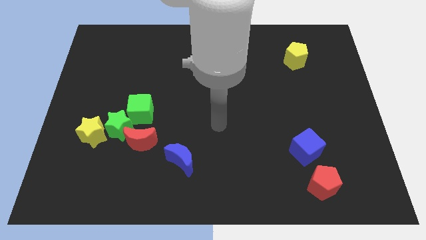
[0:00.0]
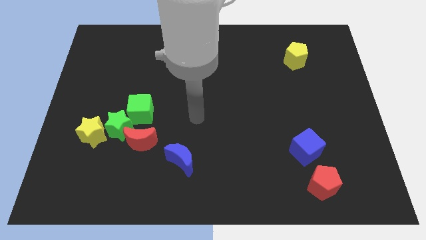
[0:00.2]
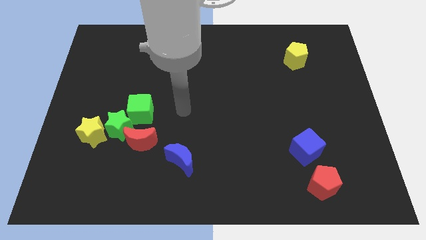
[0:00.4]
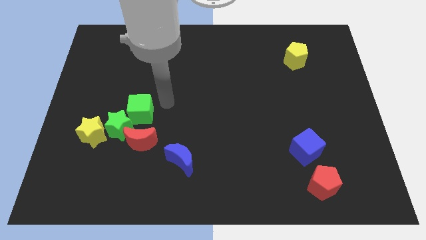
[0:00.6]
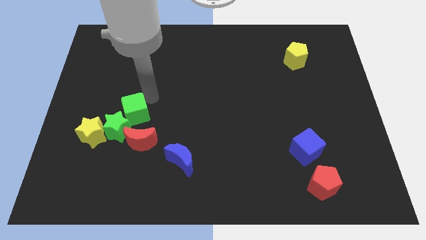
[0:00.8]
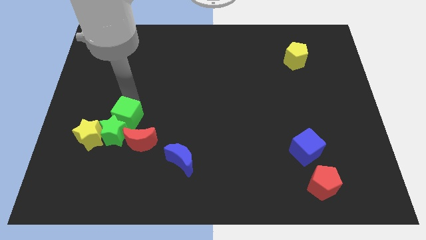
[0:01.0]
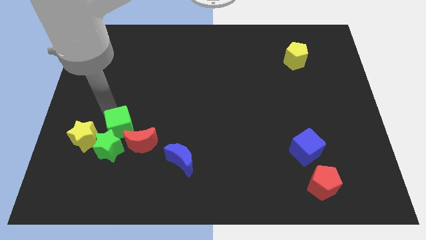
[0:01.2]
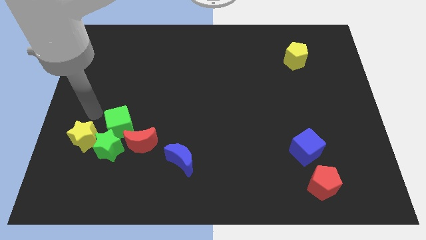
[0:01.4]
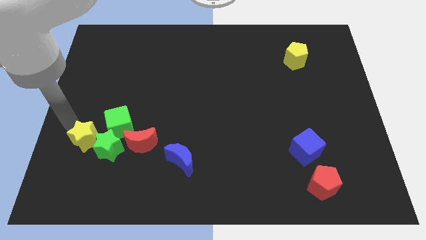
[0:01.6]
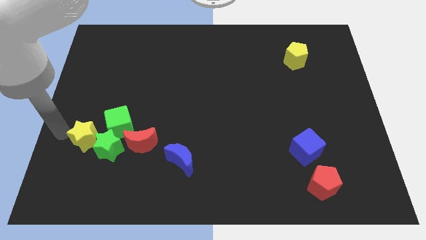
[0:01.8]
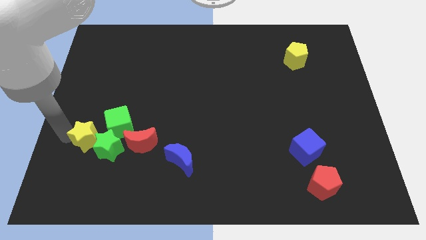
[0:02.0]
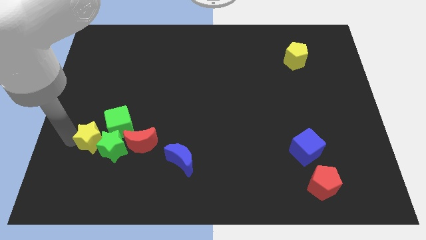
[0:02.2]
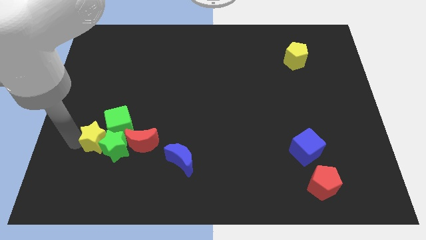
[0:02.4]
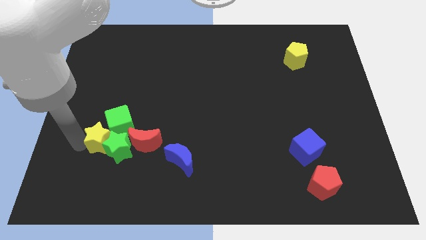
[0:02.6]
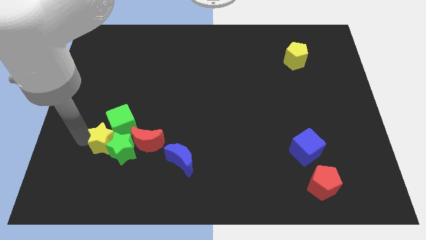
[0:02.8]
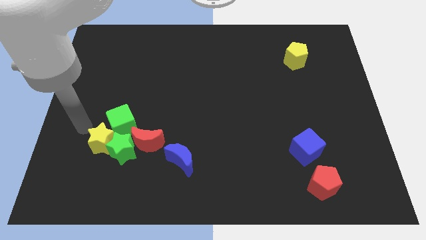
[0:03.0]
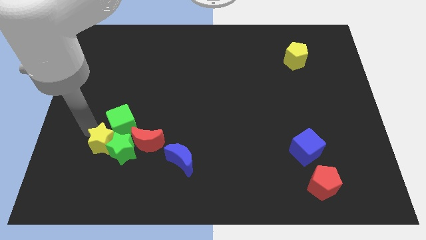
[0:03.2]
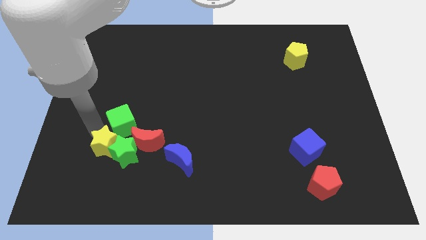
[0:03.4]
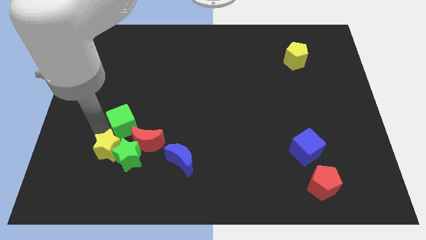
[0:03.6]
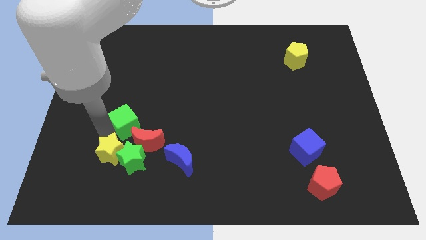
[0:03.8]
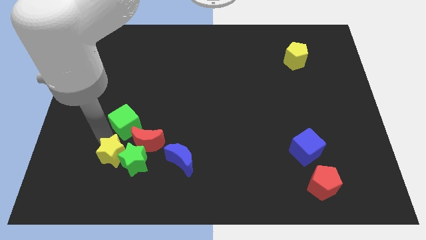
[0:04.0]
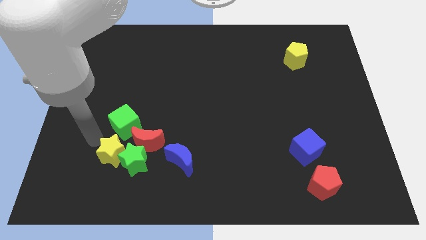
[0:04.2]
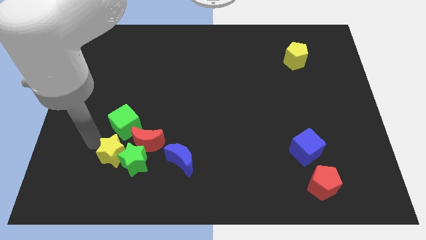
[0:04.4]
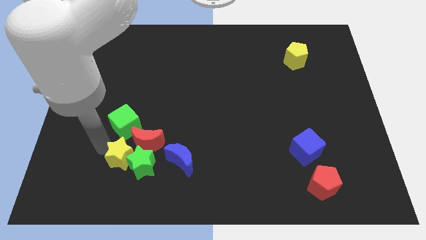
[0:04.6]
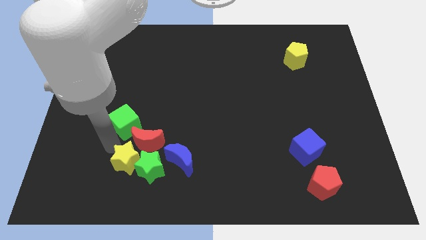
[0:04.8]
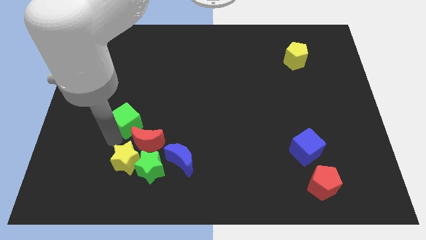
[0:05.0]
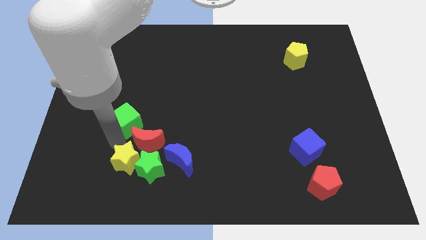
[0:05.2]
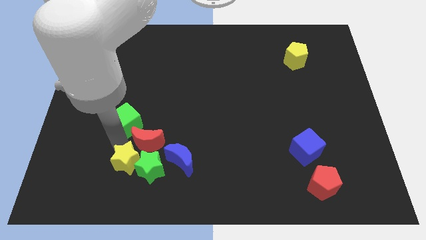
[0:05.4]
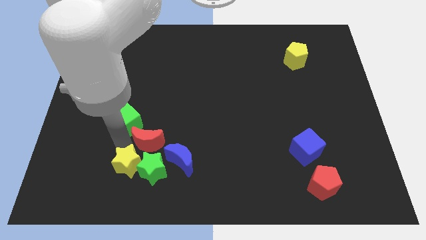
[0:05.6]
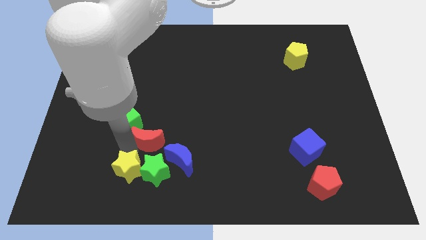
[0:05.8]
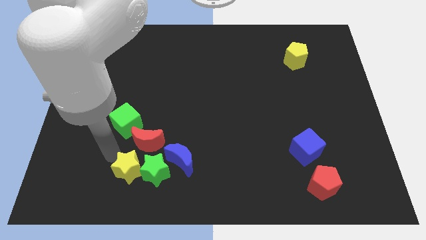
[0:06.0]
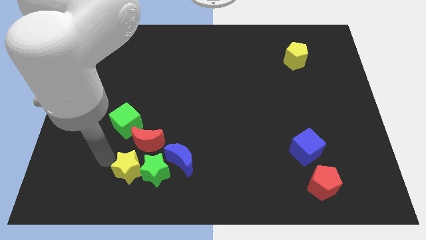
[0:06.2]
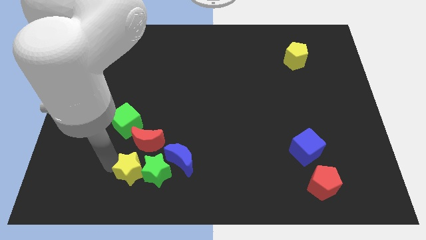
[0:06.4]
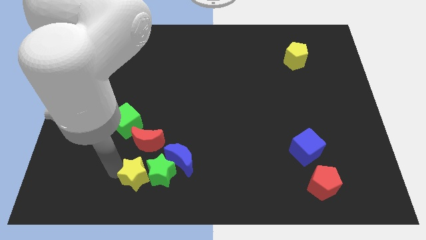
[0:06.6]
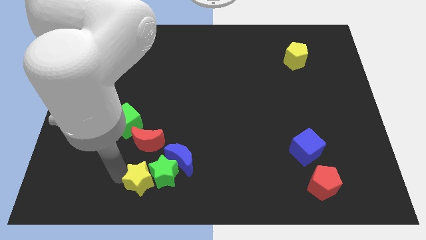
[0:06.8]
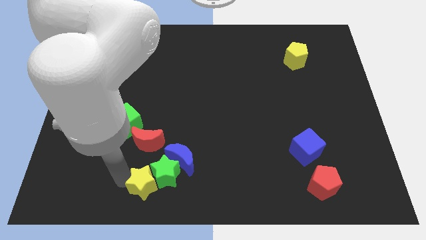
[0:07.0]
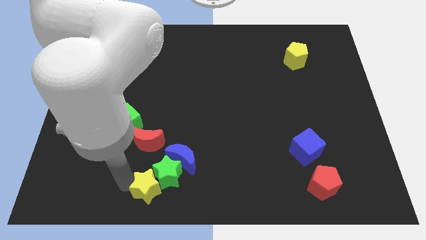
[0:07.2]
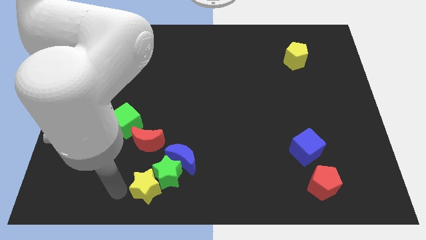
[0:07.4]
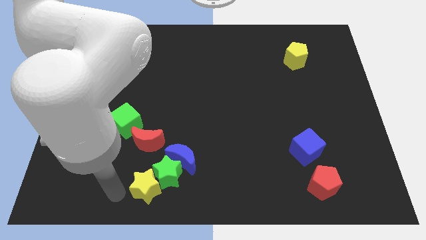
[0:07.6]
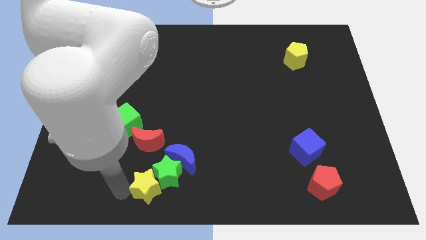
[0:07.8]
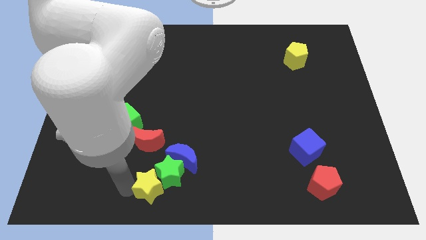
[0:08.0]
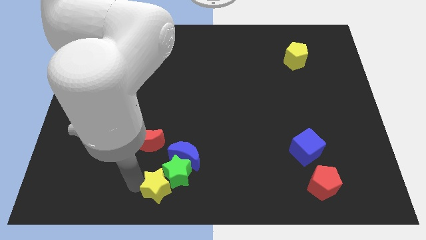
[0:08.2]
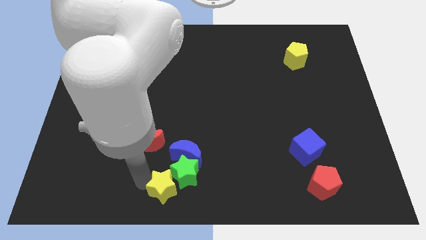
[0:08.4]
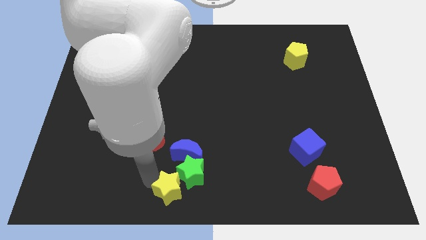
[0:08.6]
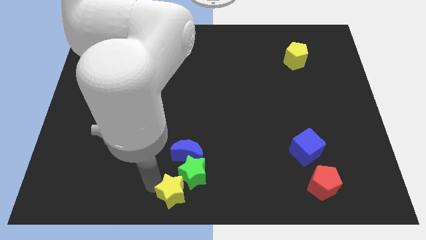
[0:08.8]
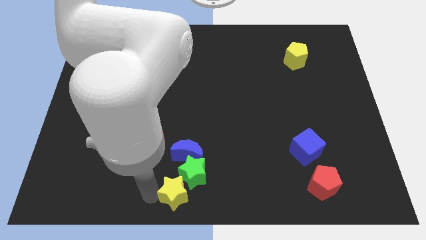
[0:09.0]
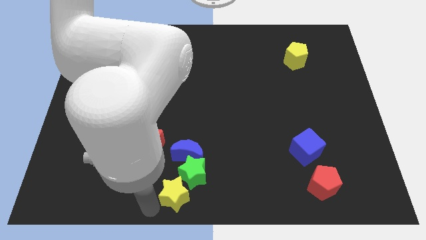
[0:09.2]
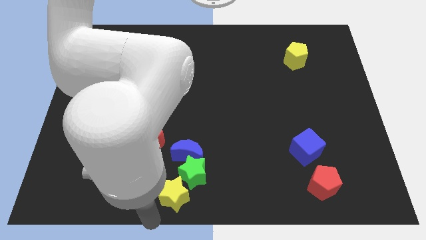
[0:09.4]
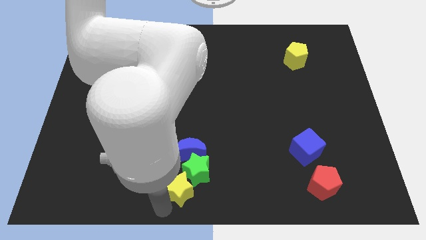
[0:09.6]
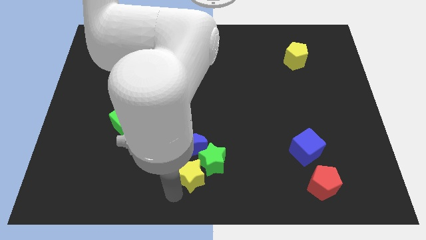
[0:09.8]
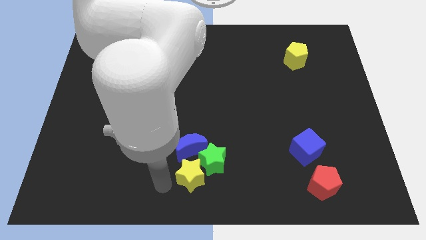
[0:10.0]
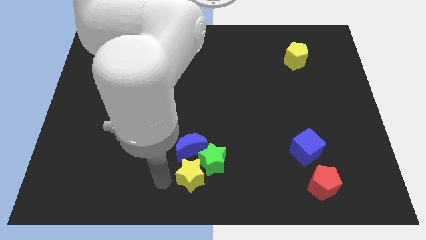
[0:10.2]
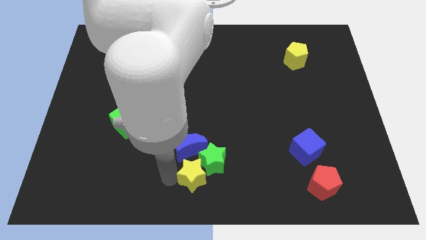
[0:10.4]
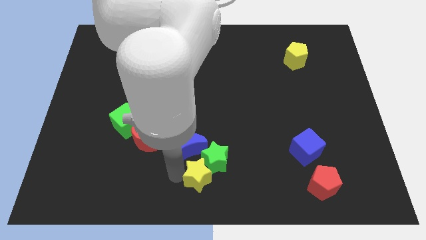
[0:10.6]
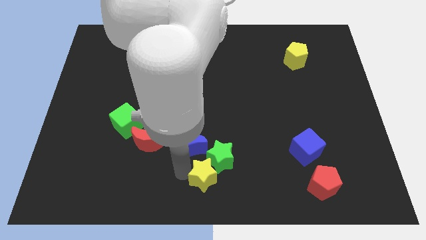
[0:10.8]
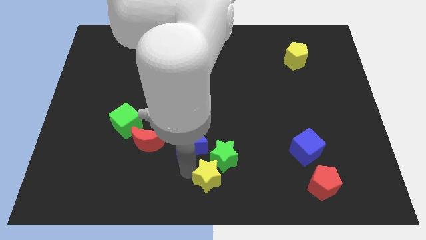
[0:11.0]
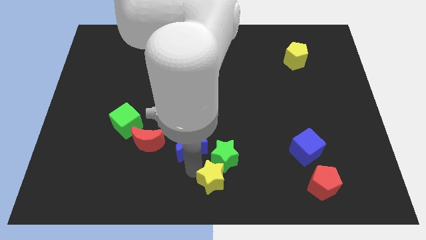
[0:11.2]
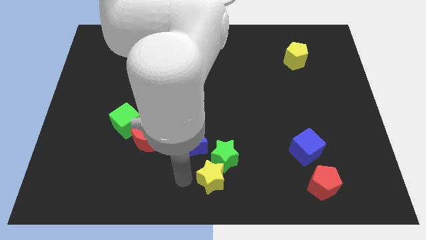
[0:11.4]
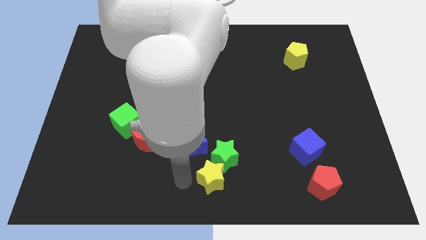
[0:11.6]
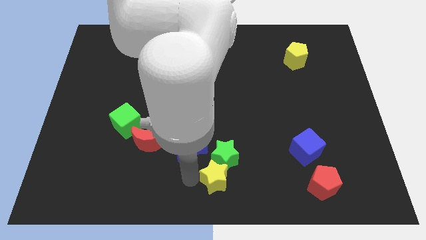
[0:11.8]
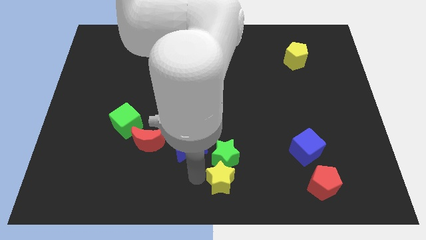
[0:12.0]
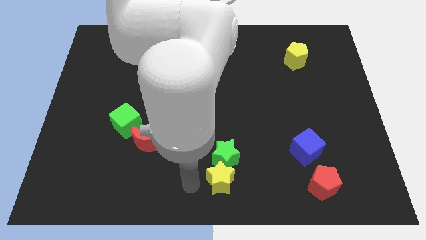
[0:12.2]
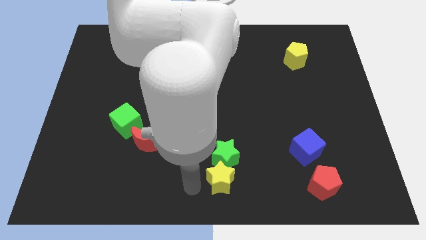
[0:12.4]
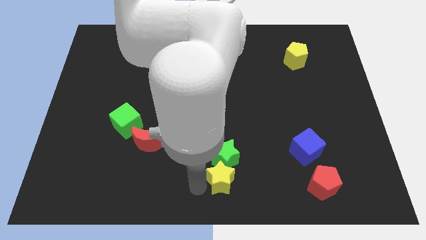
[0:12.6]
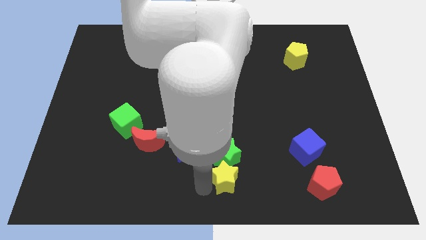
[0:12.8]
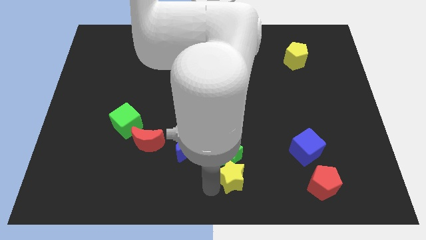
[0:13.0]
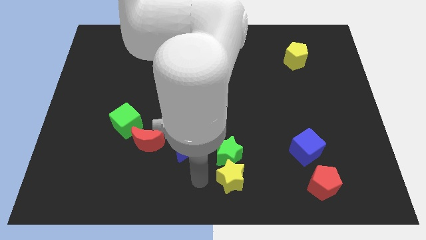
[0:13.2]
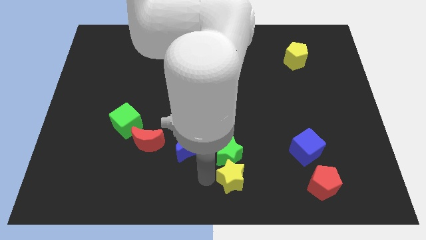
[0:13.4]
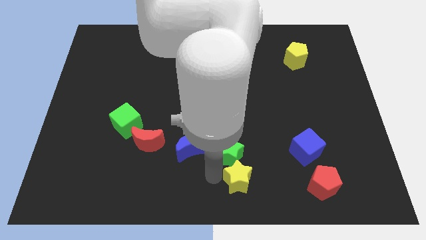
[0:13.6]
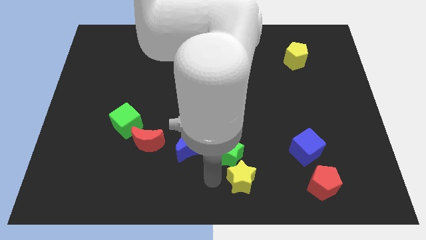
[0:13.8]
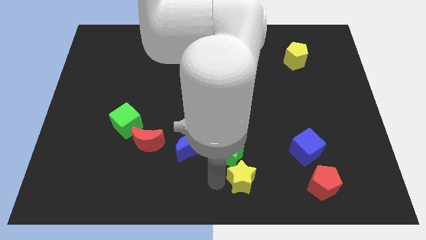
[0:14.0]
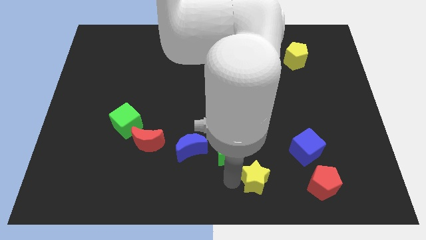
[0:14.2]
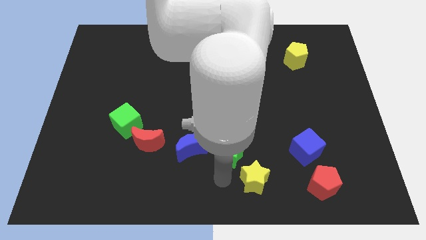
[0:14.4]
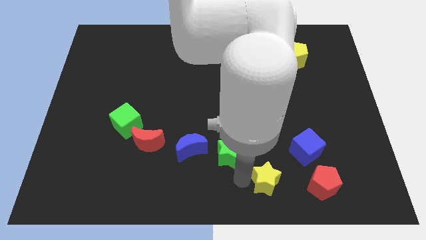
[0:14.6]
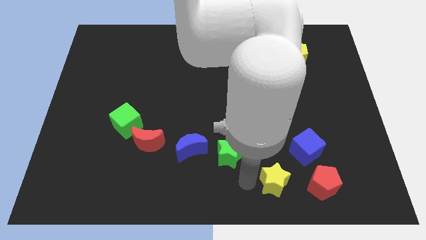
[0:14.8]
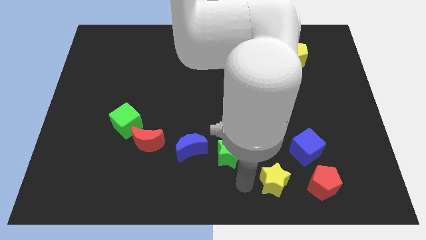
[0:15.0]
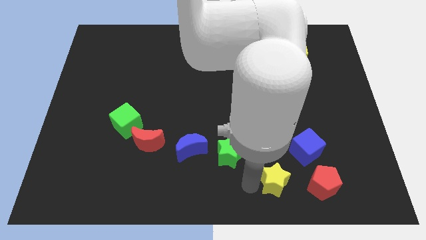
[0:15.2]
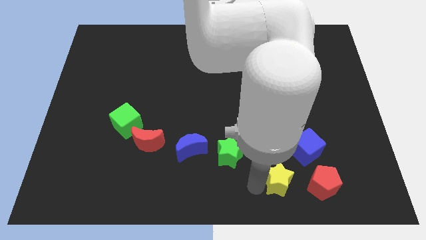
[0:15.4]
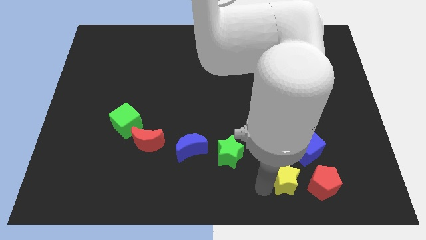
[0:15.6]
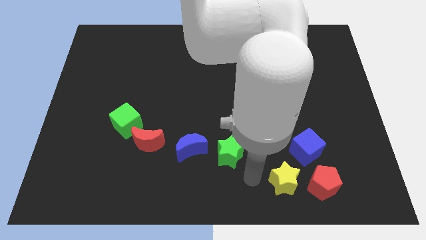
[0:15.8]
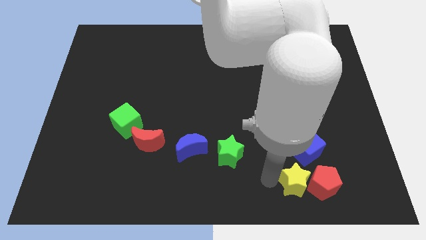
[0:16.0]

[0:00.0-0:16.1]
put the yellow star to the red pentagon
